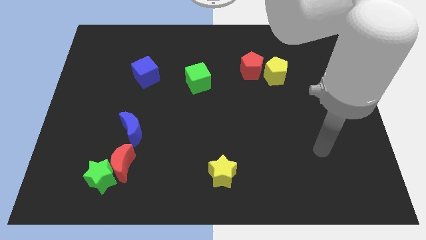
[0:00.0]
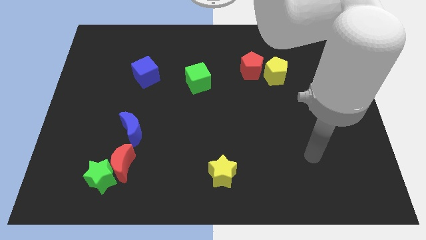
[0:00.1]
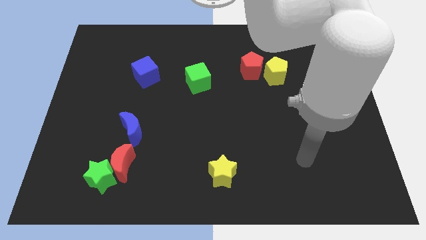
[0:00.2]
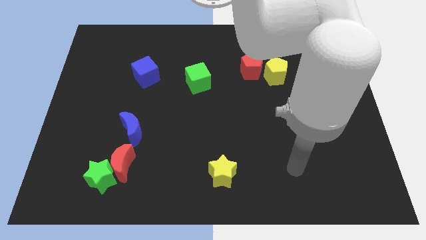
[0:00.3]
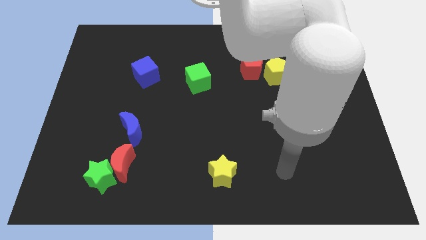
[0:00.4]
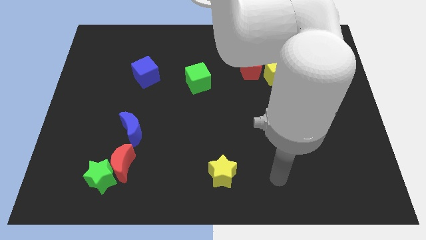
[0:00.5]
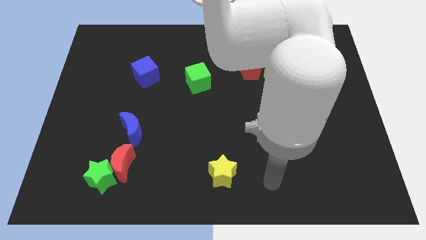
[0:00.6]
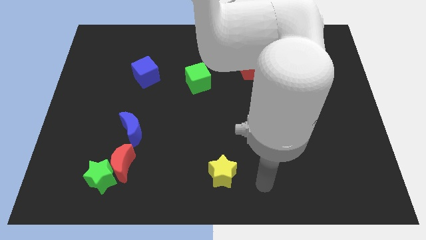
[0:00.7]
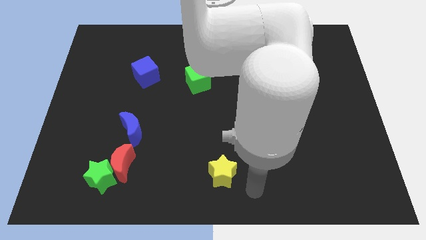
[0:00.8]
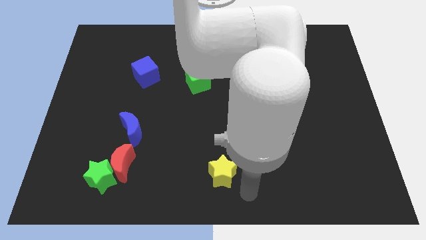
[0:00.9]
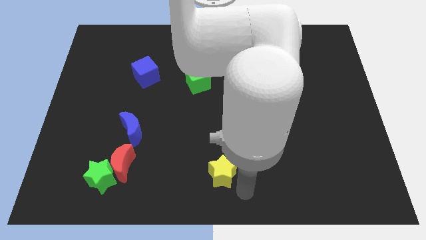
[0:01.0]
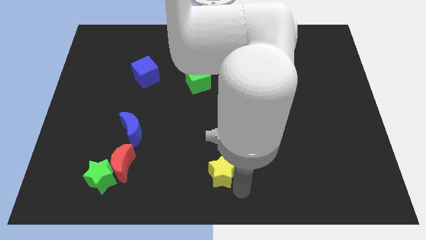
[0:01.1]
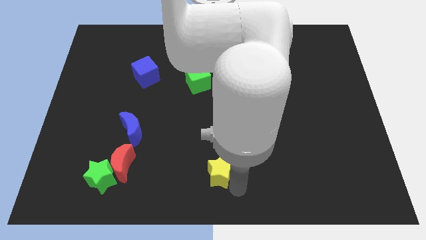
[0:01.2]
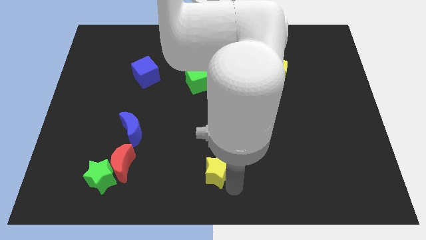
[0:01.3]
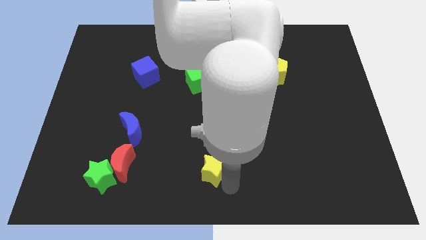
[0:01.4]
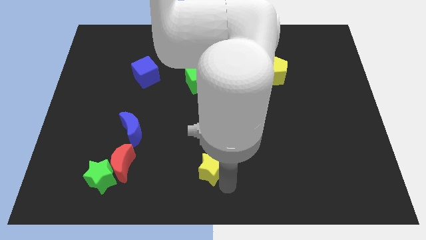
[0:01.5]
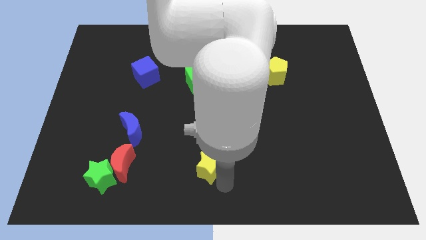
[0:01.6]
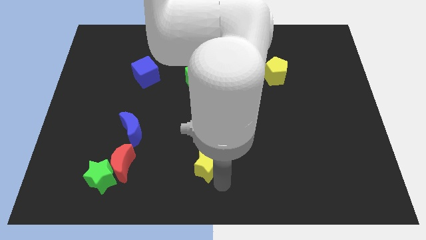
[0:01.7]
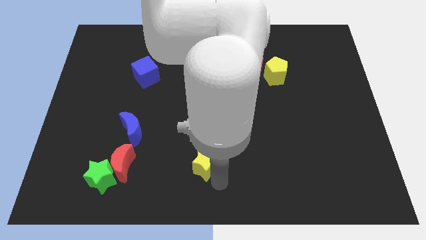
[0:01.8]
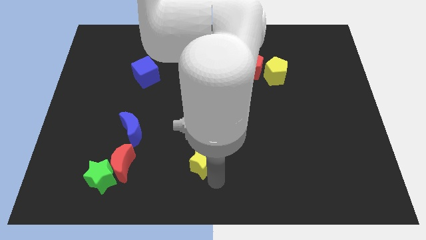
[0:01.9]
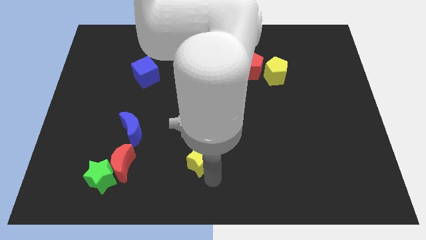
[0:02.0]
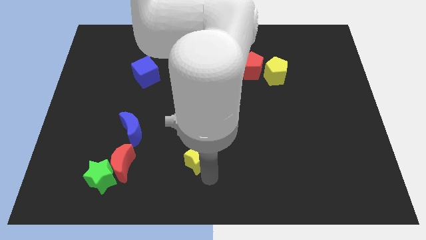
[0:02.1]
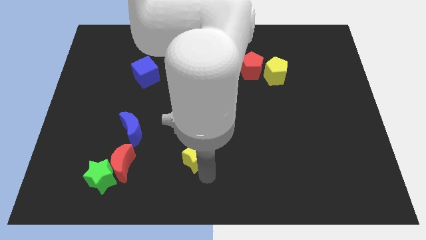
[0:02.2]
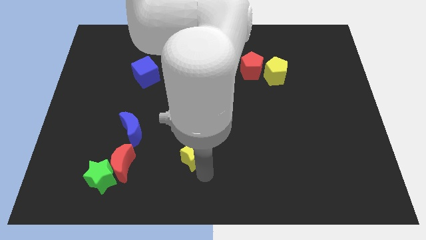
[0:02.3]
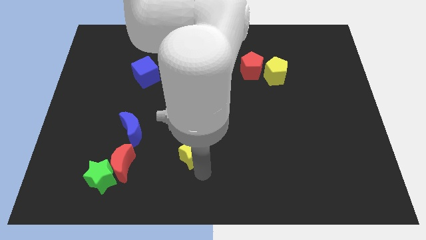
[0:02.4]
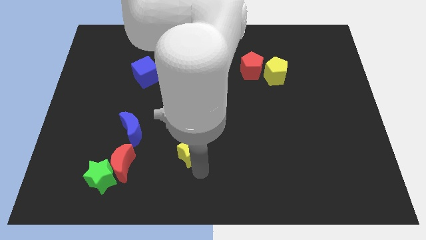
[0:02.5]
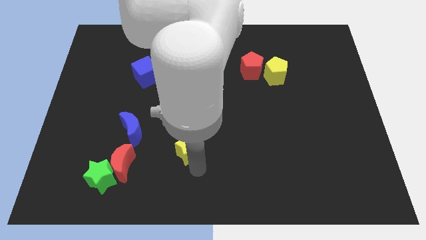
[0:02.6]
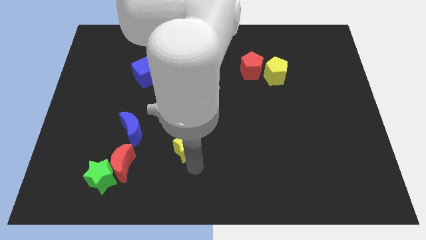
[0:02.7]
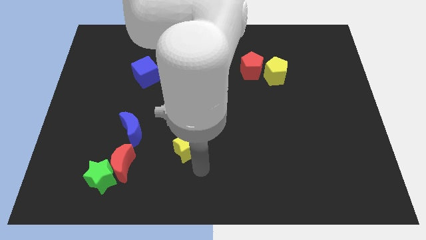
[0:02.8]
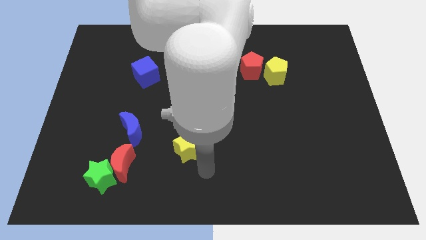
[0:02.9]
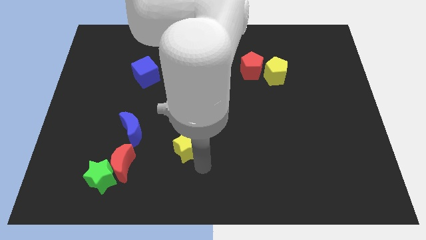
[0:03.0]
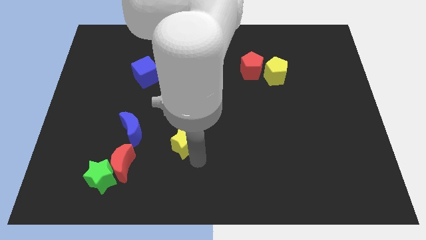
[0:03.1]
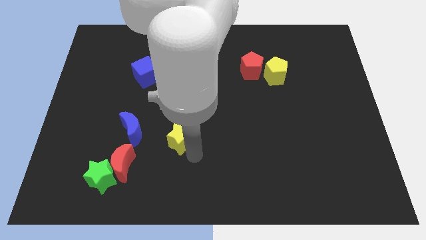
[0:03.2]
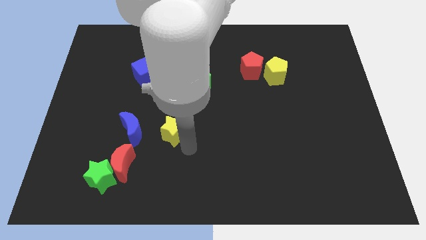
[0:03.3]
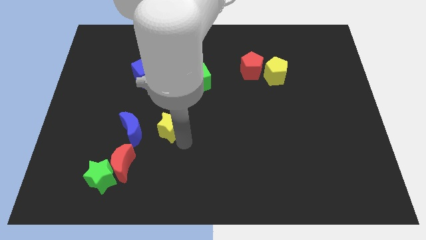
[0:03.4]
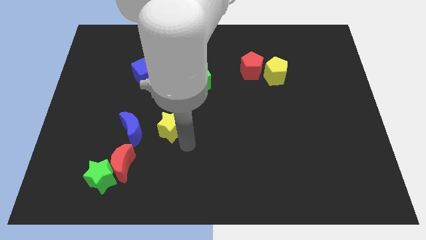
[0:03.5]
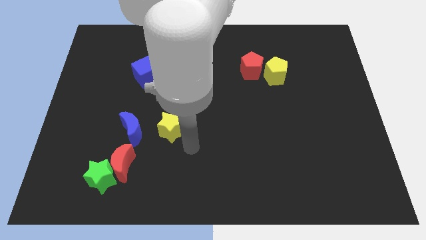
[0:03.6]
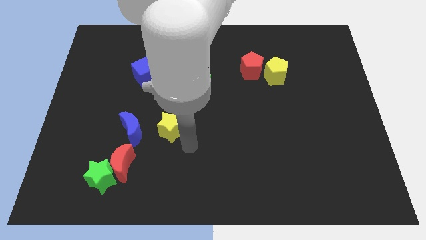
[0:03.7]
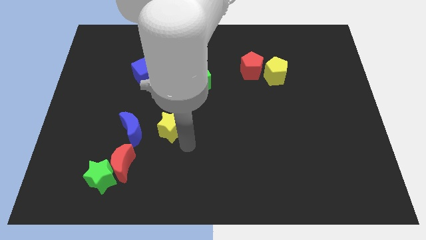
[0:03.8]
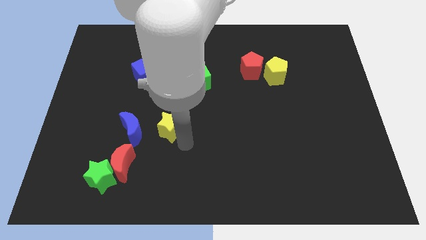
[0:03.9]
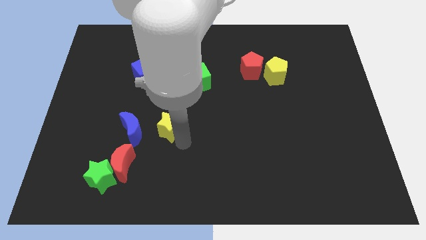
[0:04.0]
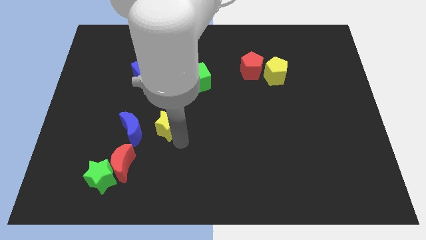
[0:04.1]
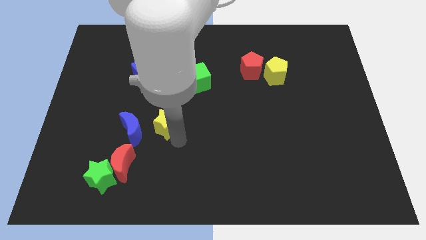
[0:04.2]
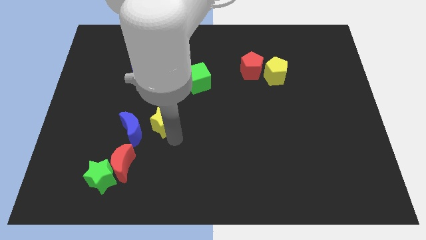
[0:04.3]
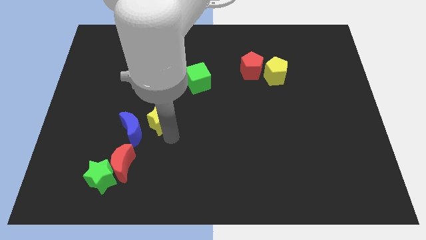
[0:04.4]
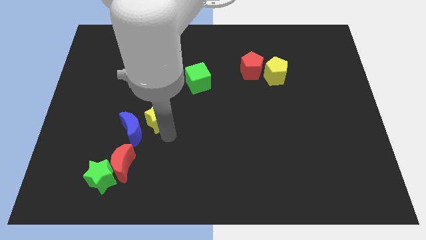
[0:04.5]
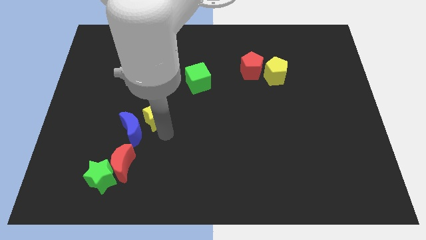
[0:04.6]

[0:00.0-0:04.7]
push the yellow star upwards and to the left

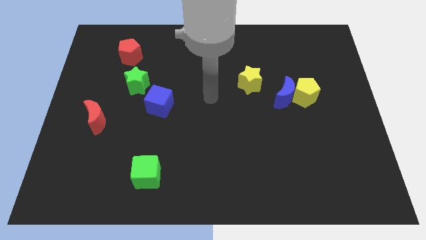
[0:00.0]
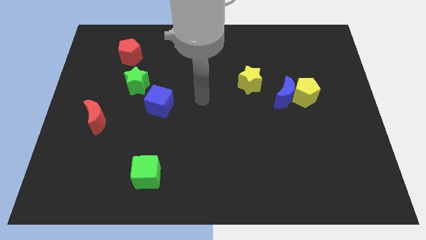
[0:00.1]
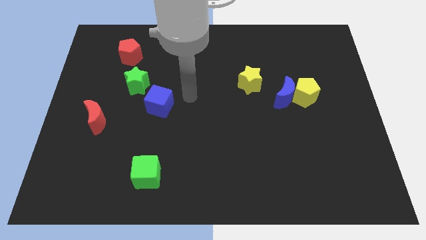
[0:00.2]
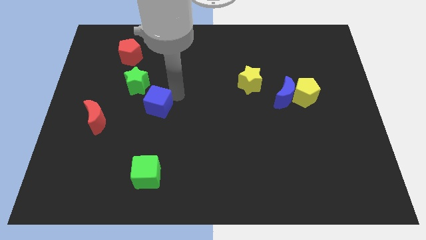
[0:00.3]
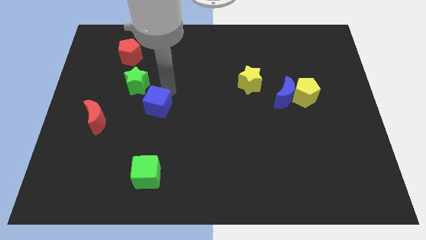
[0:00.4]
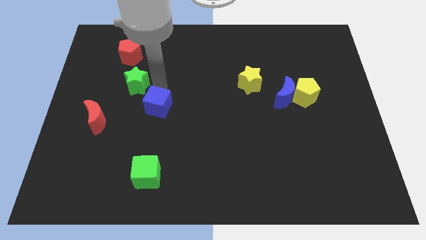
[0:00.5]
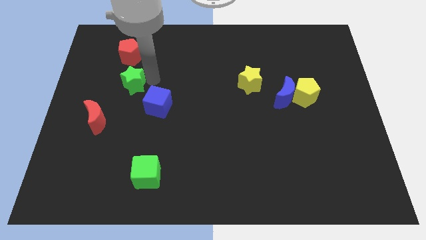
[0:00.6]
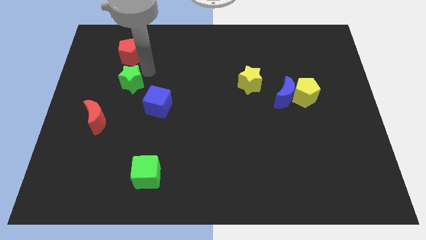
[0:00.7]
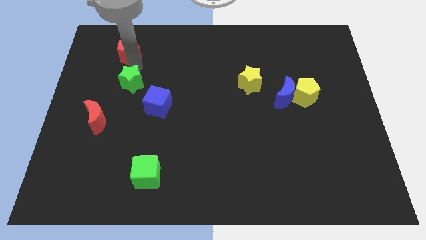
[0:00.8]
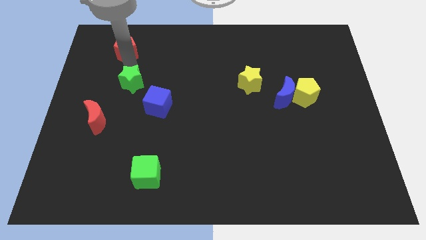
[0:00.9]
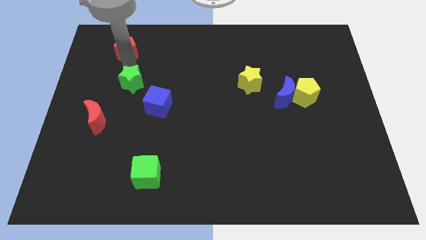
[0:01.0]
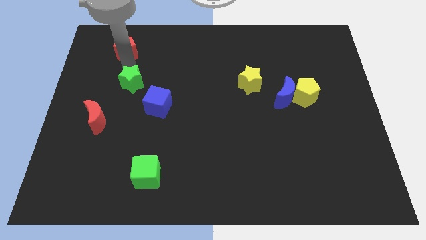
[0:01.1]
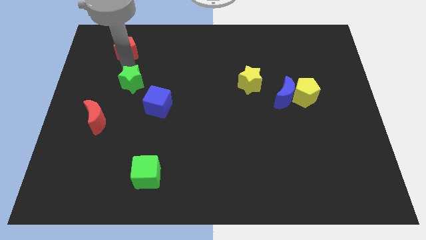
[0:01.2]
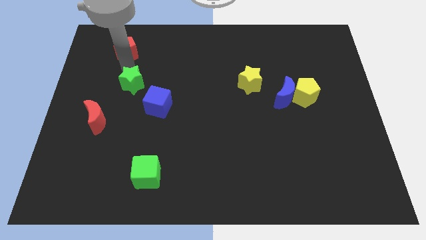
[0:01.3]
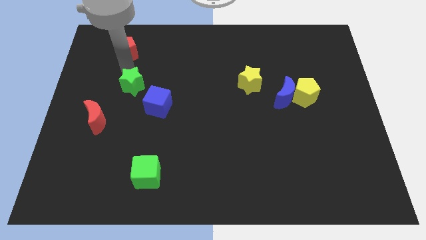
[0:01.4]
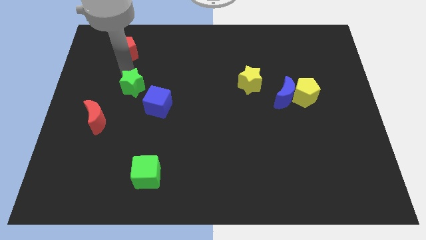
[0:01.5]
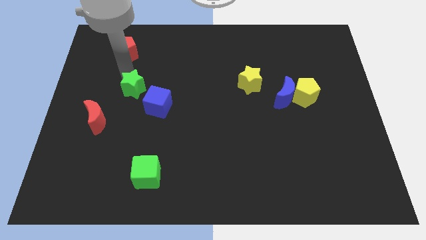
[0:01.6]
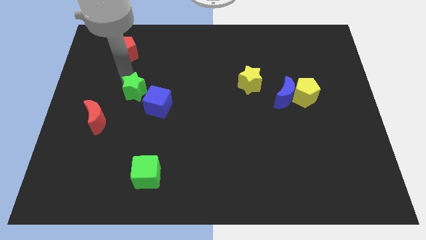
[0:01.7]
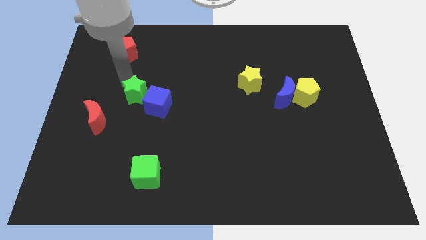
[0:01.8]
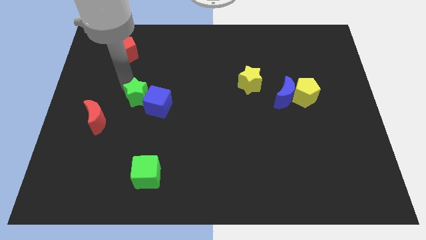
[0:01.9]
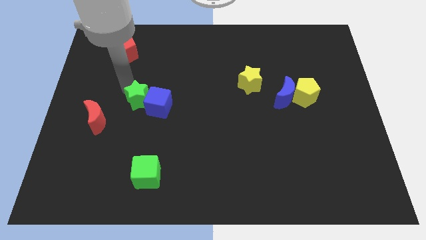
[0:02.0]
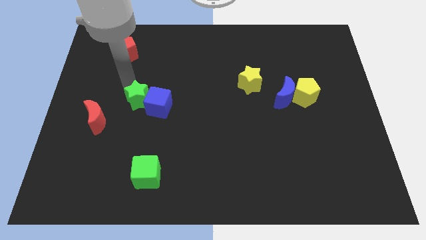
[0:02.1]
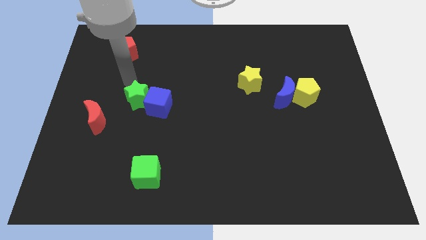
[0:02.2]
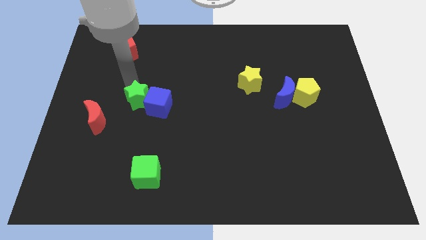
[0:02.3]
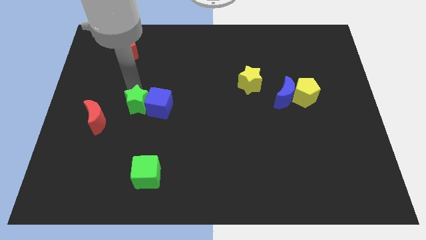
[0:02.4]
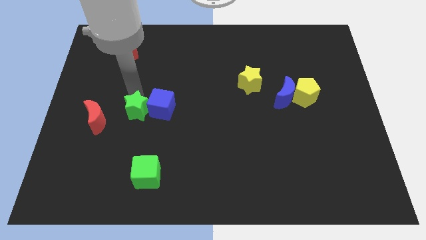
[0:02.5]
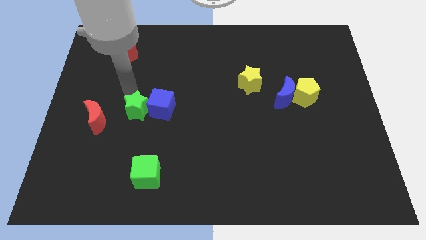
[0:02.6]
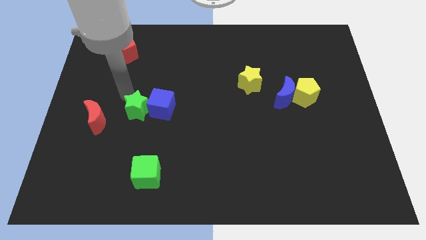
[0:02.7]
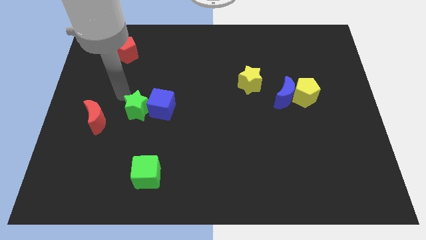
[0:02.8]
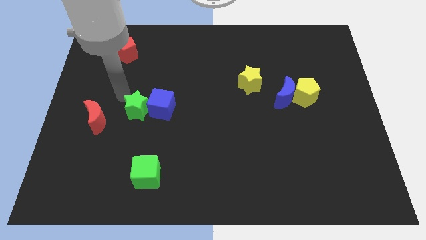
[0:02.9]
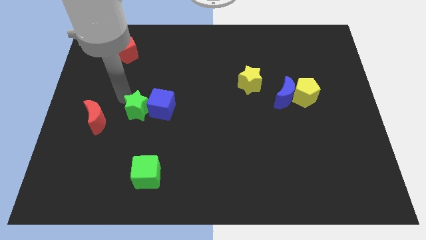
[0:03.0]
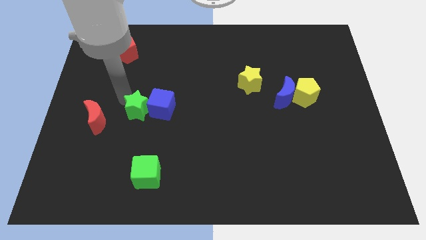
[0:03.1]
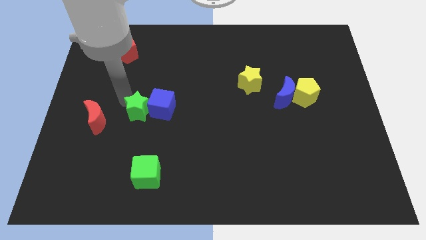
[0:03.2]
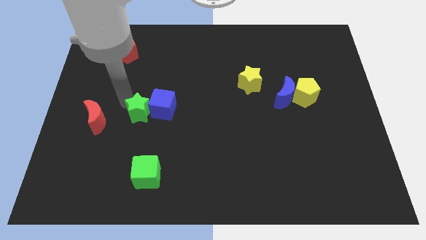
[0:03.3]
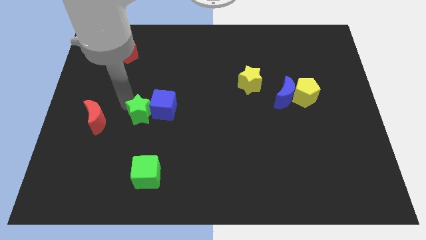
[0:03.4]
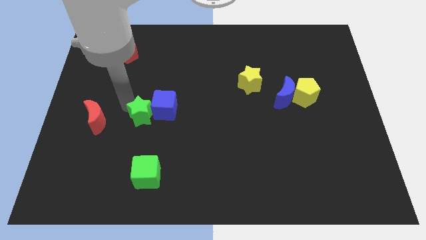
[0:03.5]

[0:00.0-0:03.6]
slide the green star diagonally down and right slightly
